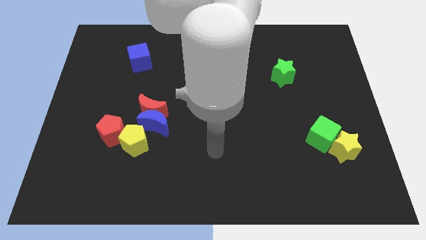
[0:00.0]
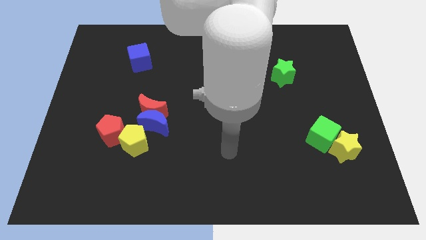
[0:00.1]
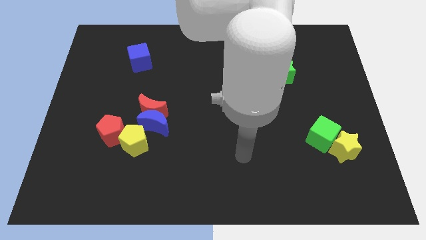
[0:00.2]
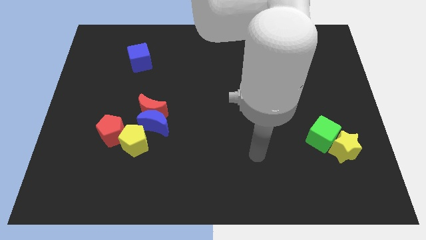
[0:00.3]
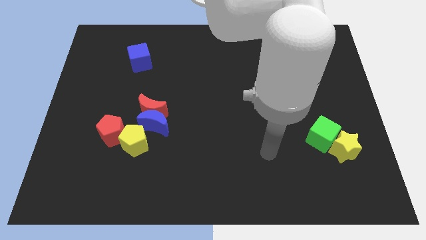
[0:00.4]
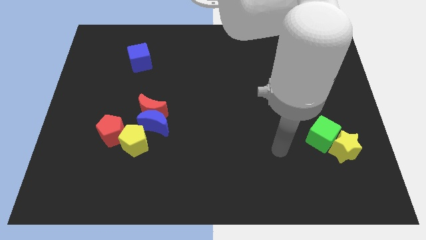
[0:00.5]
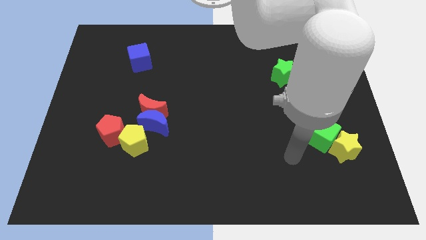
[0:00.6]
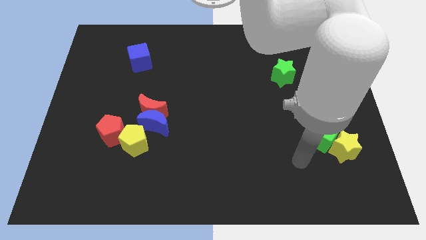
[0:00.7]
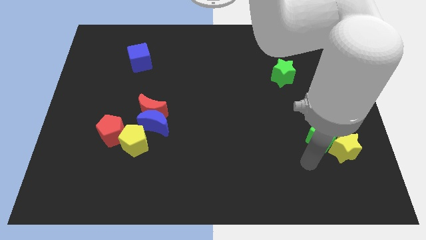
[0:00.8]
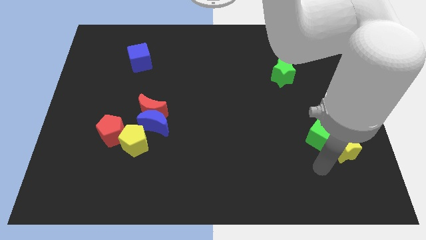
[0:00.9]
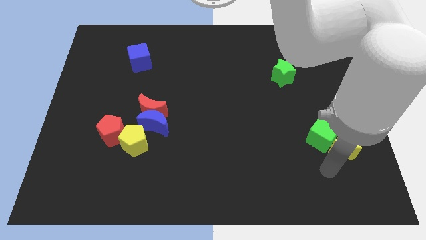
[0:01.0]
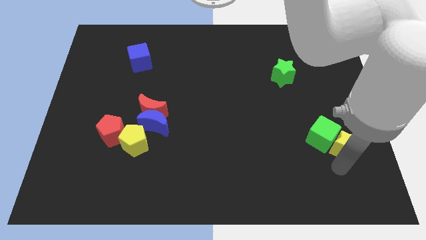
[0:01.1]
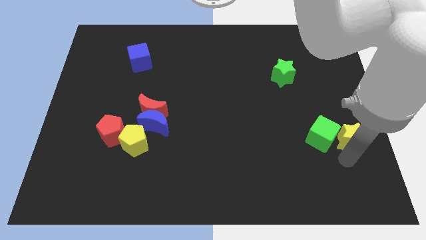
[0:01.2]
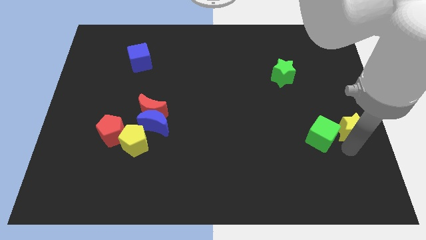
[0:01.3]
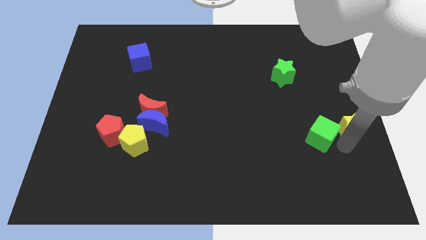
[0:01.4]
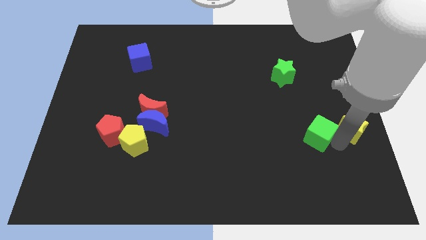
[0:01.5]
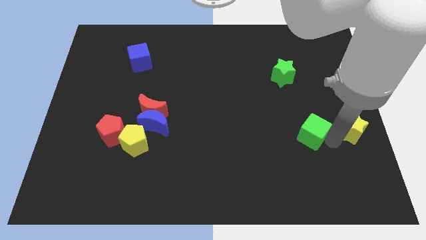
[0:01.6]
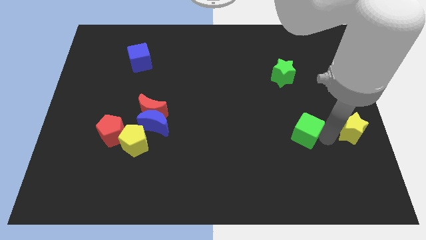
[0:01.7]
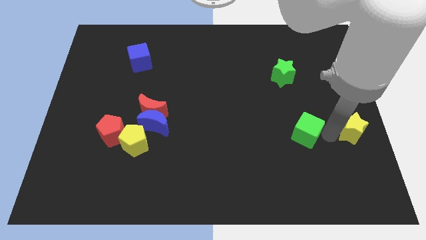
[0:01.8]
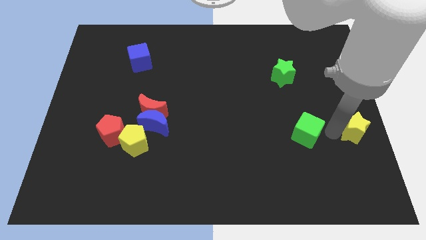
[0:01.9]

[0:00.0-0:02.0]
separate the green cube from the yellow star

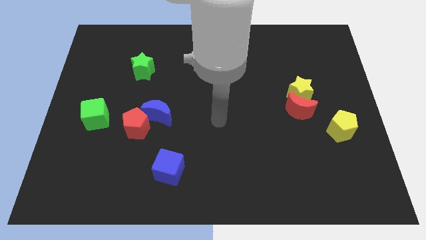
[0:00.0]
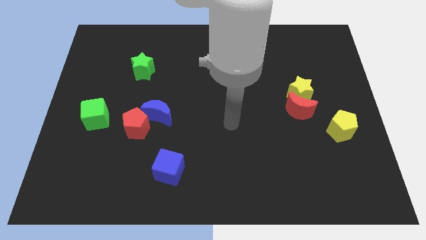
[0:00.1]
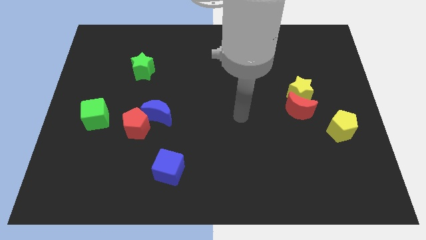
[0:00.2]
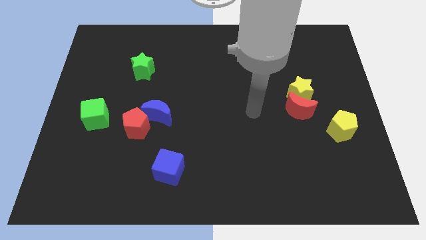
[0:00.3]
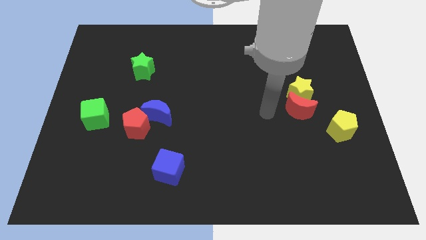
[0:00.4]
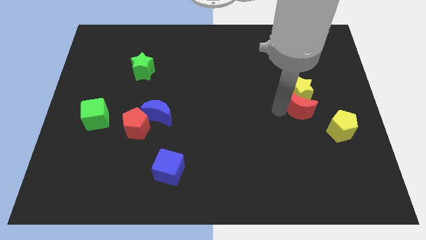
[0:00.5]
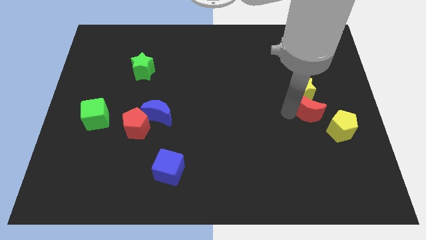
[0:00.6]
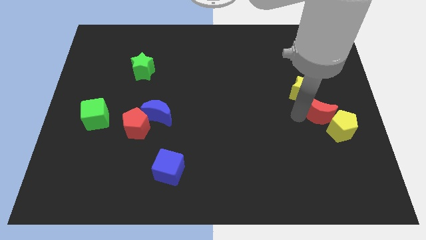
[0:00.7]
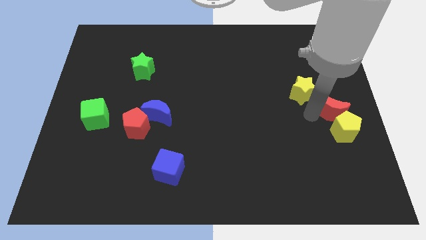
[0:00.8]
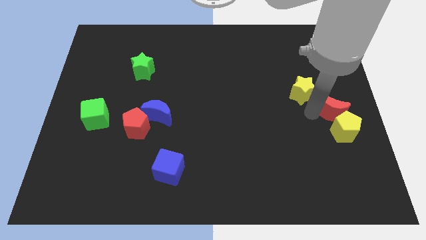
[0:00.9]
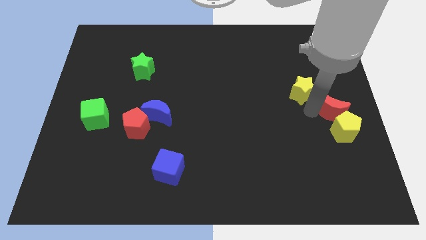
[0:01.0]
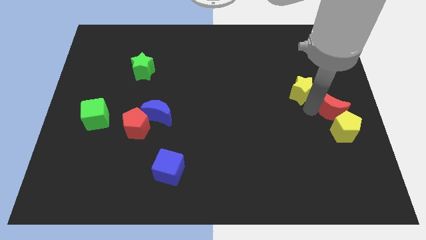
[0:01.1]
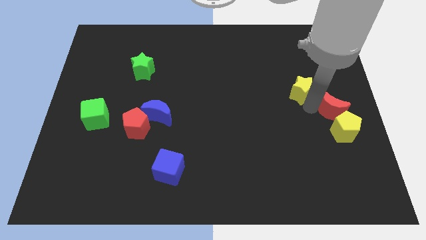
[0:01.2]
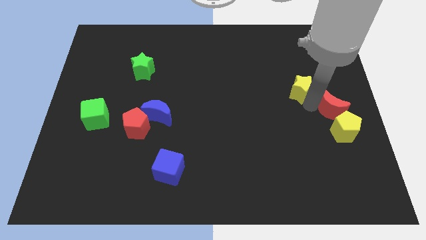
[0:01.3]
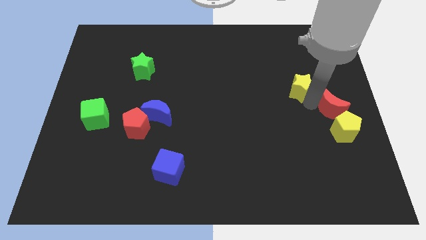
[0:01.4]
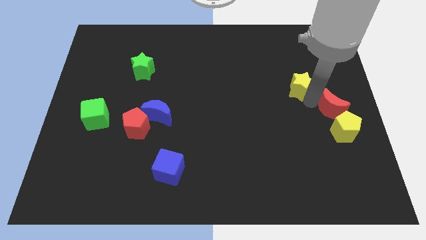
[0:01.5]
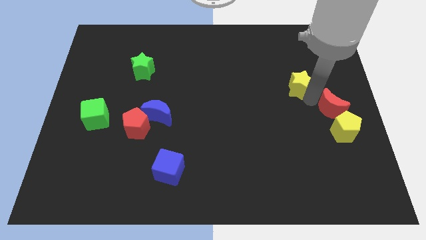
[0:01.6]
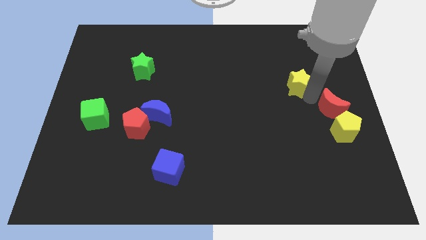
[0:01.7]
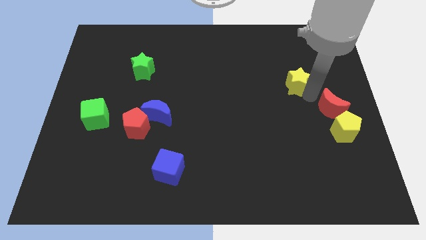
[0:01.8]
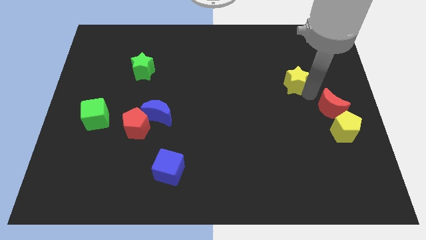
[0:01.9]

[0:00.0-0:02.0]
pull the yellow star apart from the red moon

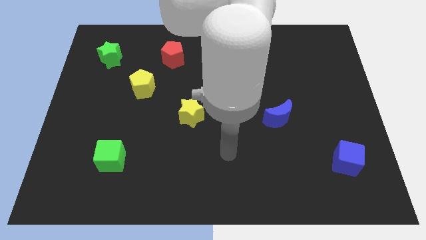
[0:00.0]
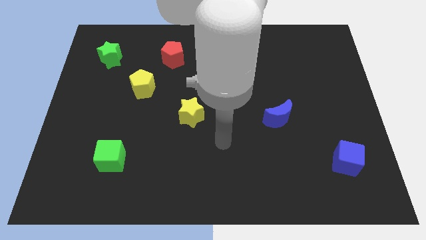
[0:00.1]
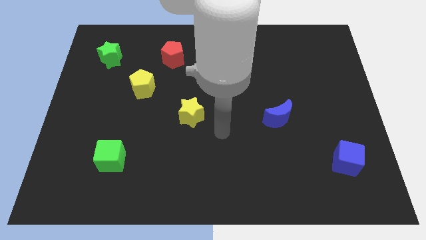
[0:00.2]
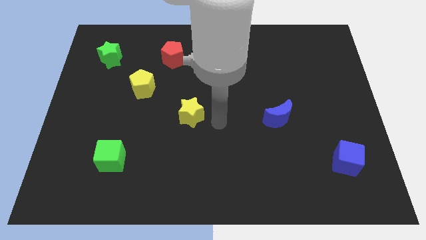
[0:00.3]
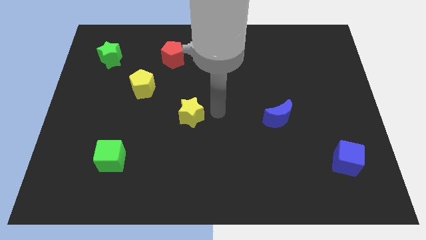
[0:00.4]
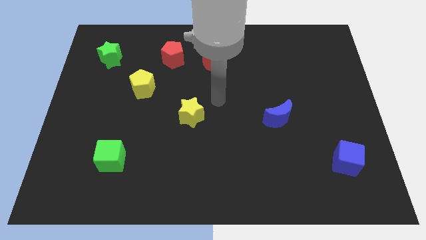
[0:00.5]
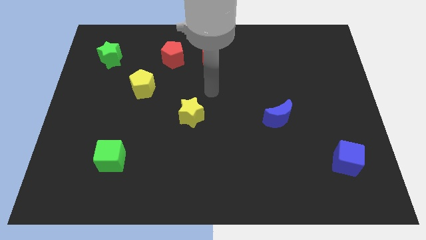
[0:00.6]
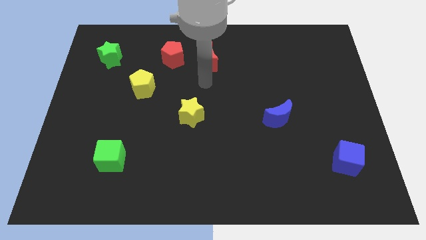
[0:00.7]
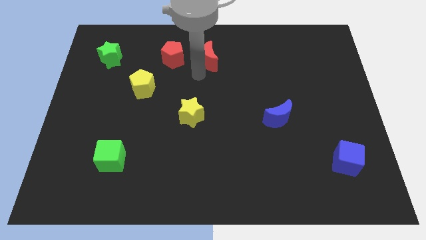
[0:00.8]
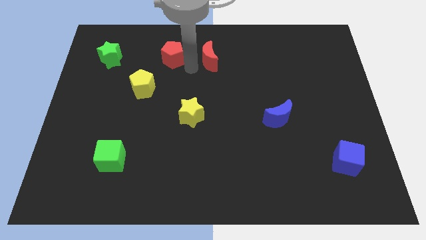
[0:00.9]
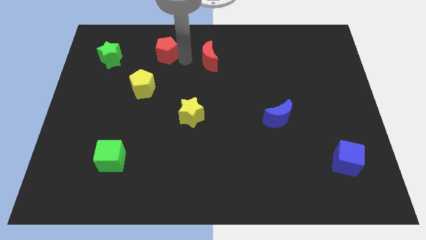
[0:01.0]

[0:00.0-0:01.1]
move the red moon away from the red pentagon

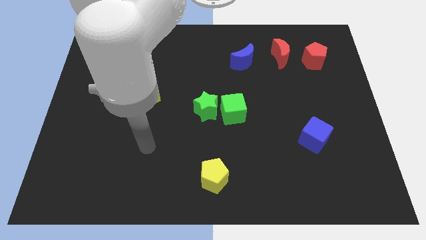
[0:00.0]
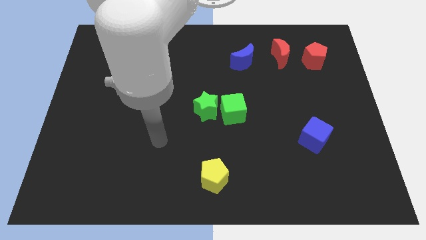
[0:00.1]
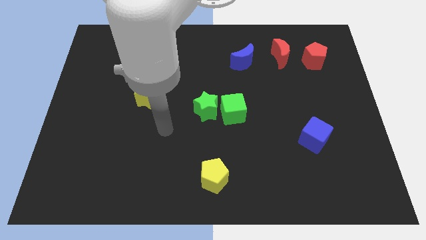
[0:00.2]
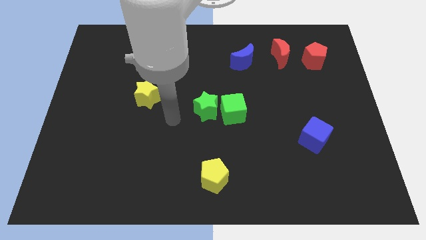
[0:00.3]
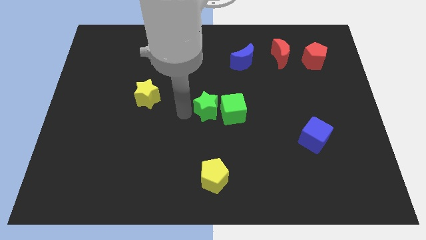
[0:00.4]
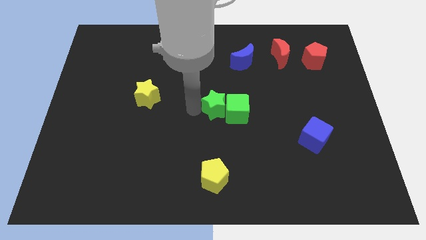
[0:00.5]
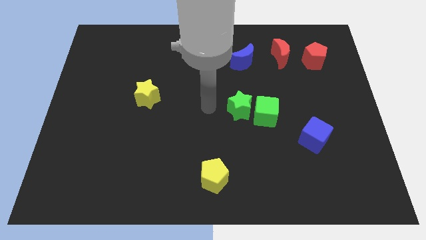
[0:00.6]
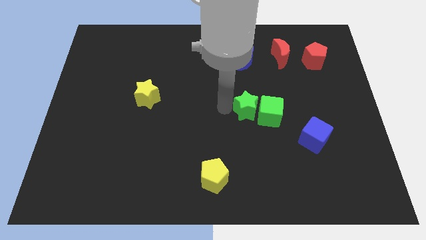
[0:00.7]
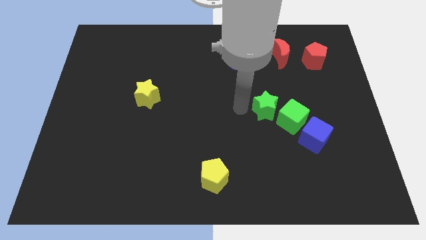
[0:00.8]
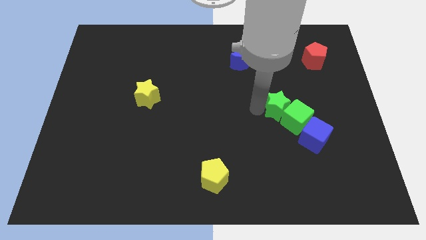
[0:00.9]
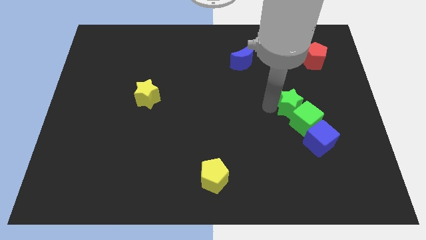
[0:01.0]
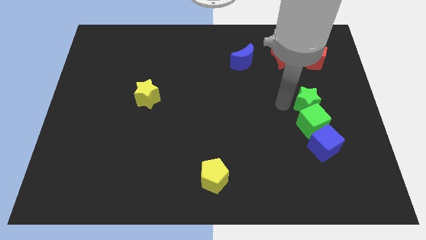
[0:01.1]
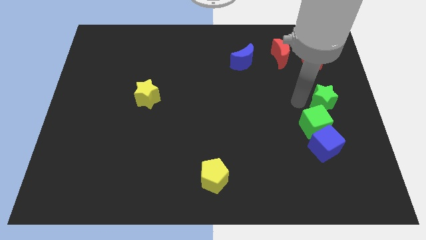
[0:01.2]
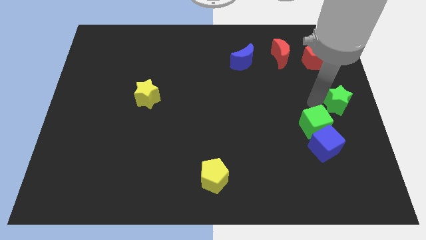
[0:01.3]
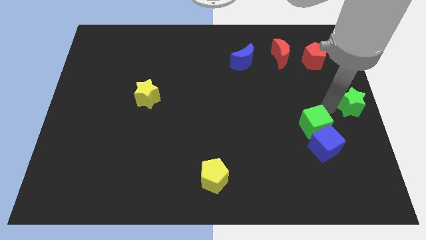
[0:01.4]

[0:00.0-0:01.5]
pull the green cube apart from the green star

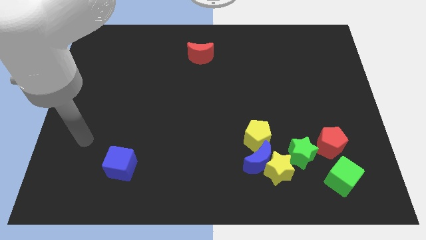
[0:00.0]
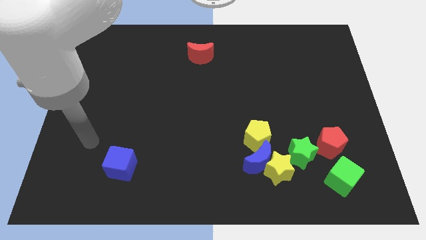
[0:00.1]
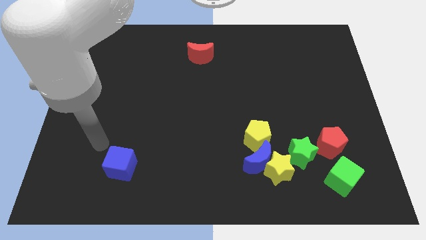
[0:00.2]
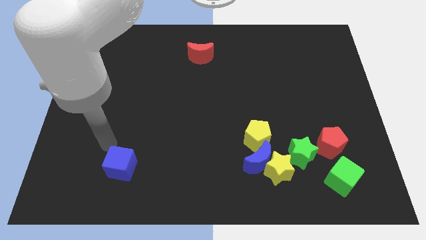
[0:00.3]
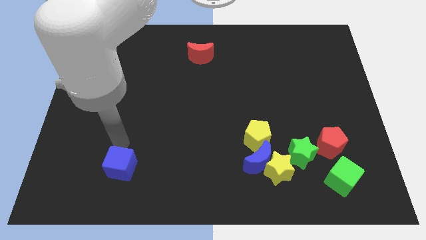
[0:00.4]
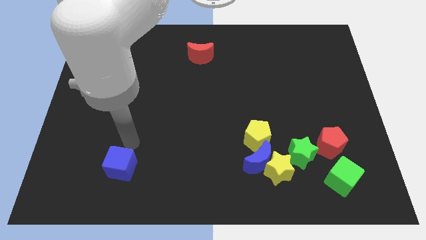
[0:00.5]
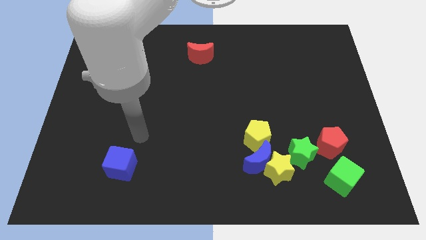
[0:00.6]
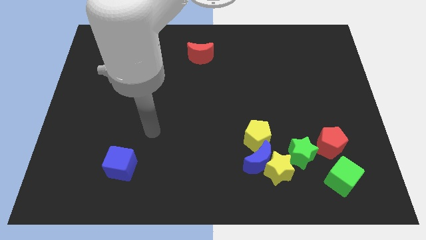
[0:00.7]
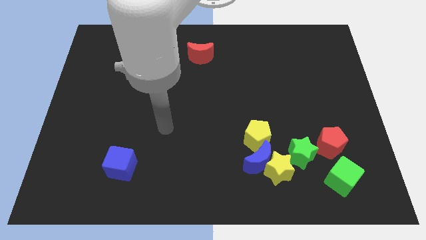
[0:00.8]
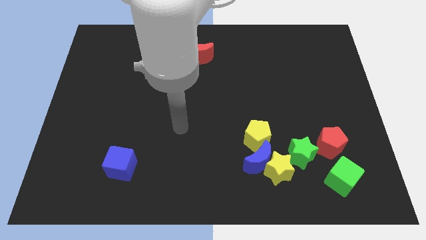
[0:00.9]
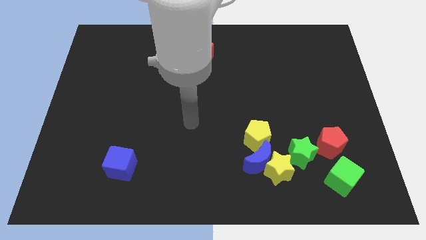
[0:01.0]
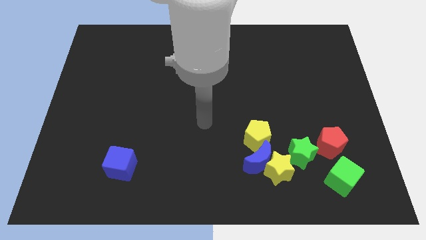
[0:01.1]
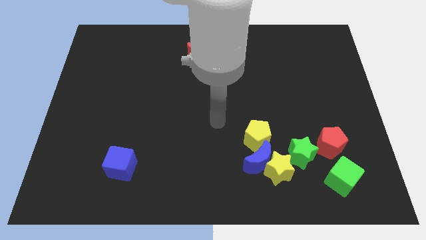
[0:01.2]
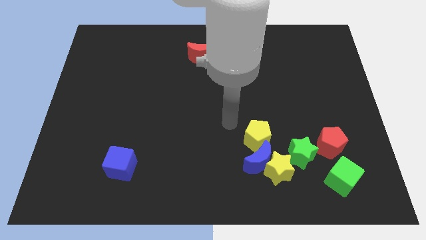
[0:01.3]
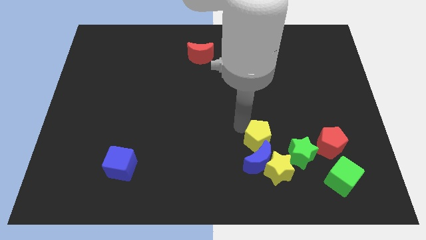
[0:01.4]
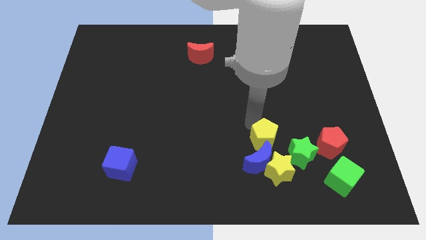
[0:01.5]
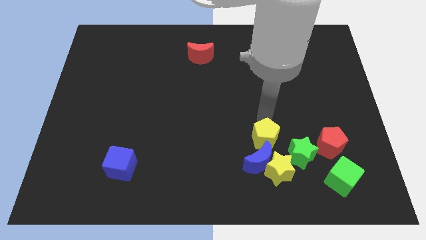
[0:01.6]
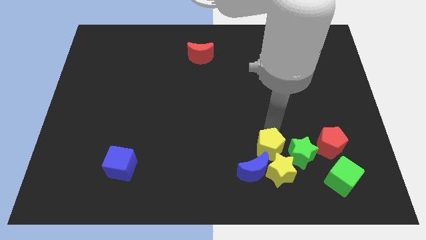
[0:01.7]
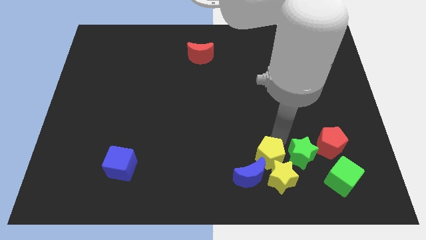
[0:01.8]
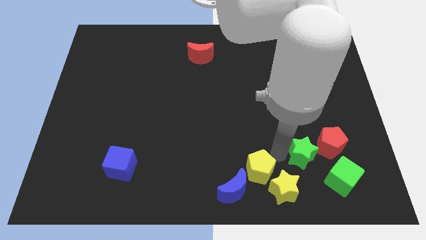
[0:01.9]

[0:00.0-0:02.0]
move the blue moon away from the group

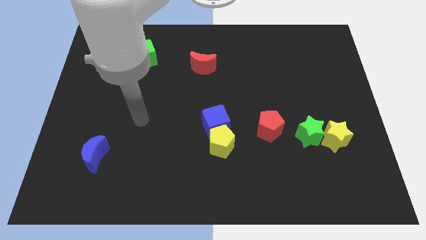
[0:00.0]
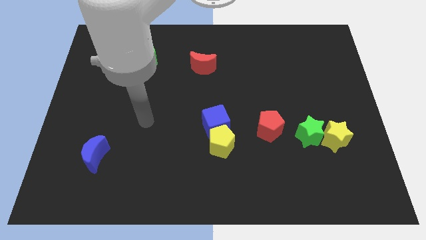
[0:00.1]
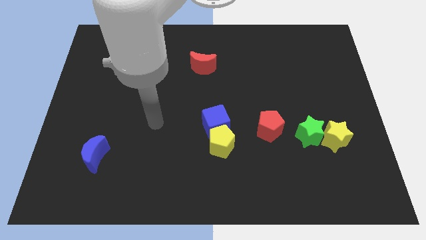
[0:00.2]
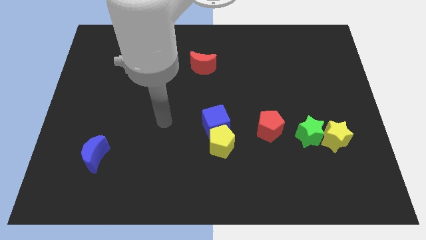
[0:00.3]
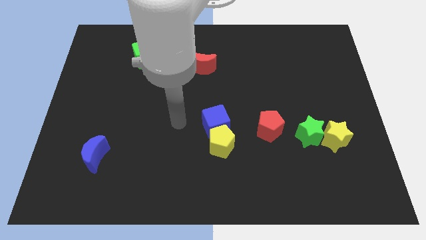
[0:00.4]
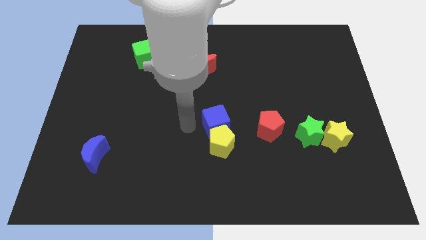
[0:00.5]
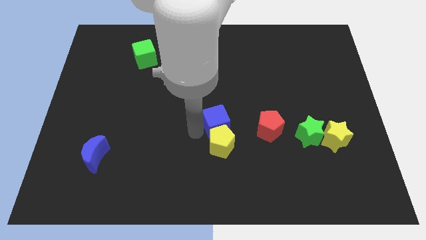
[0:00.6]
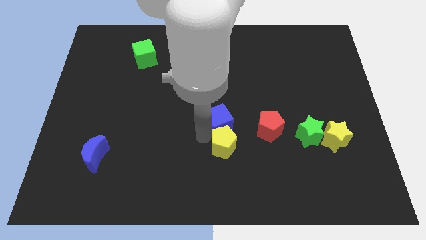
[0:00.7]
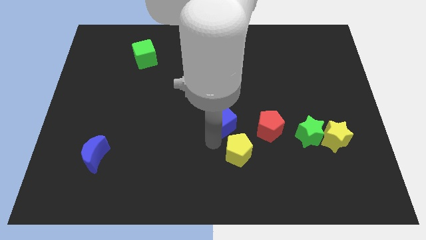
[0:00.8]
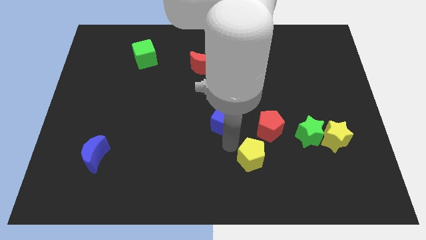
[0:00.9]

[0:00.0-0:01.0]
pull the blue cube apart from the yellow pentagon
